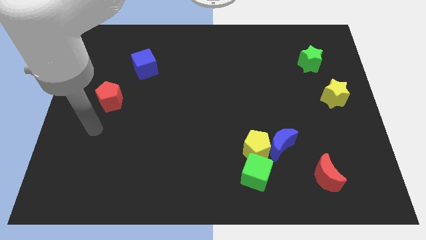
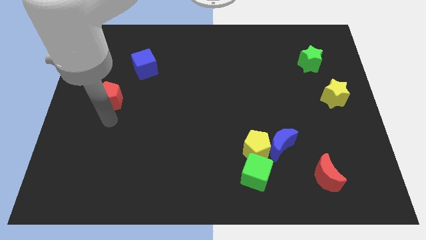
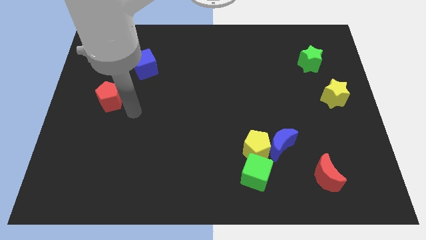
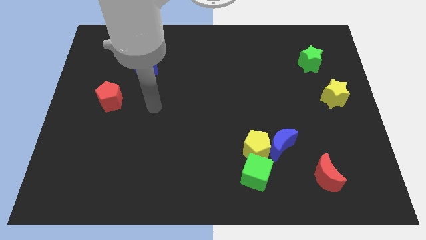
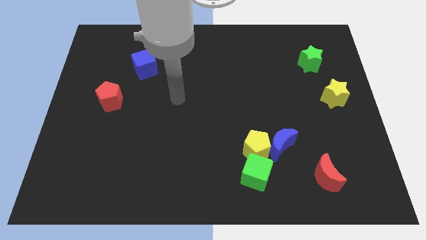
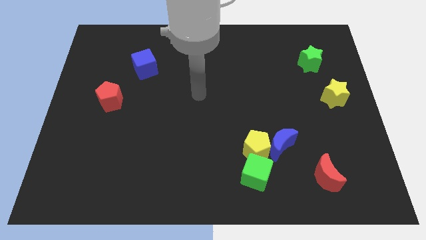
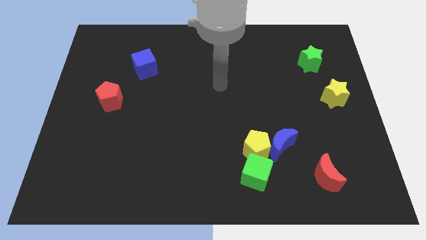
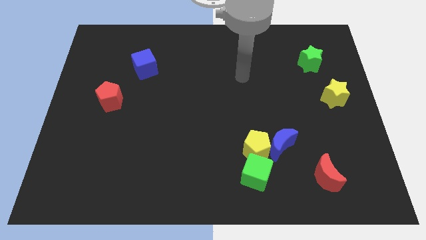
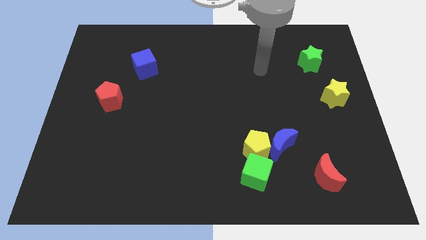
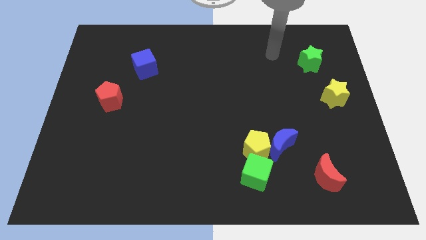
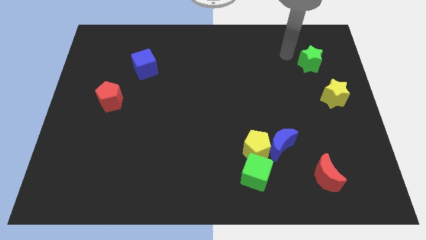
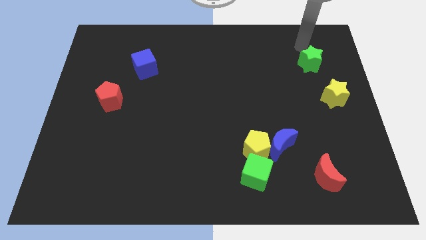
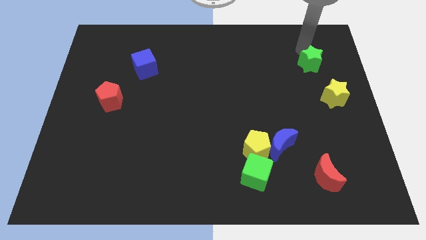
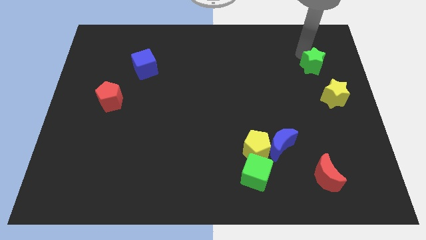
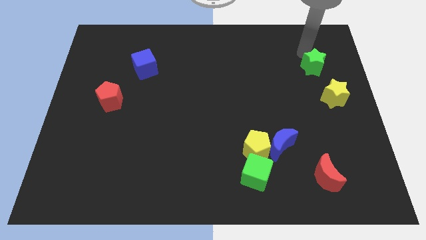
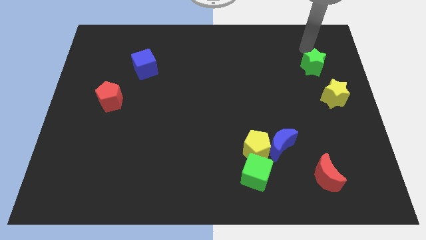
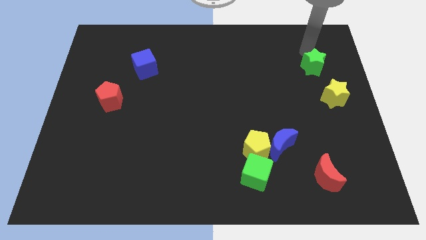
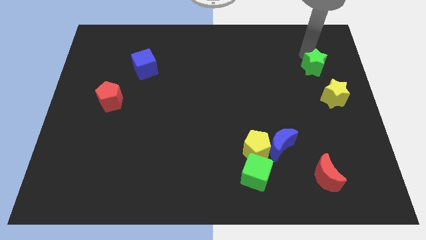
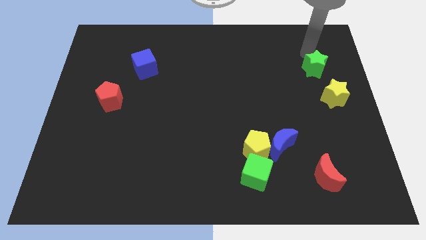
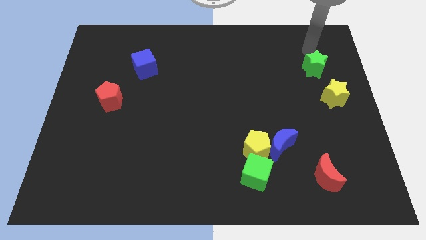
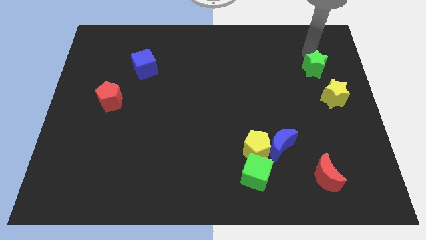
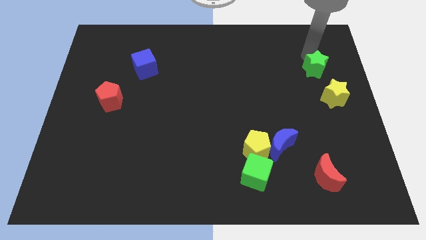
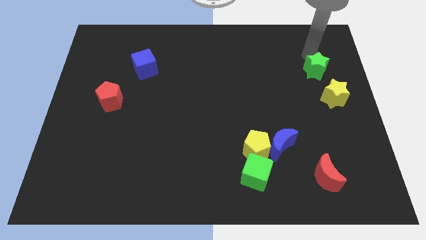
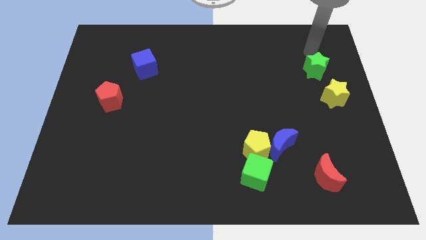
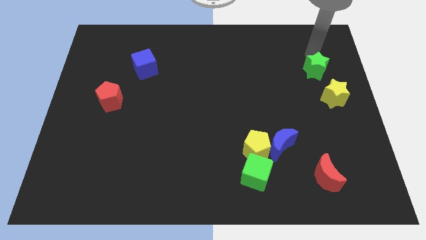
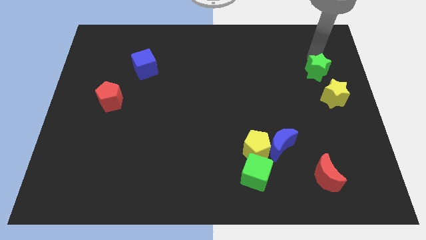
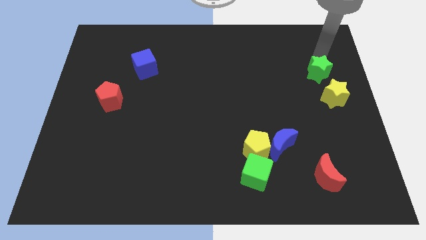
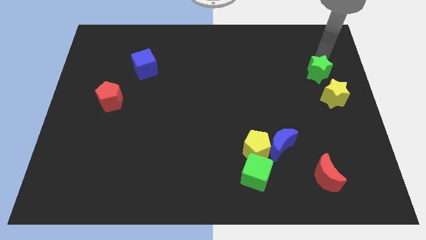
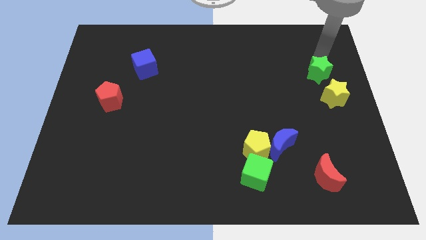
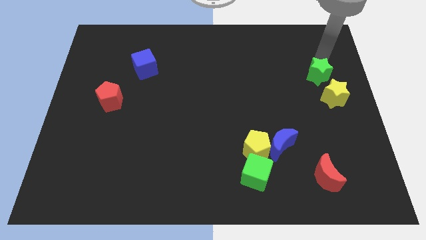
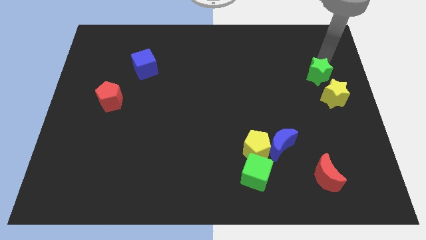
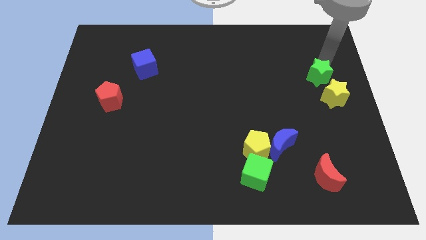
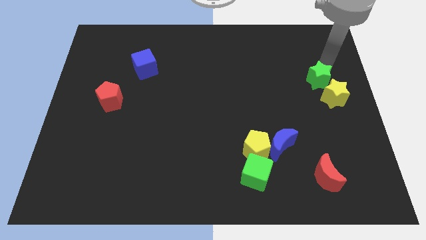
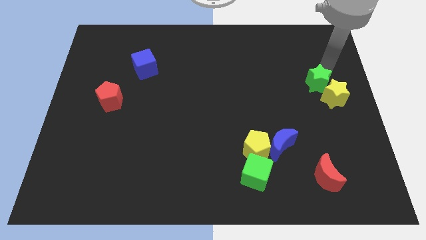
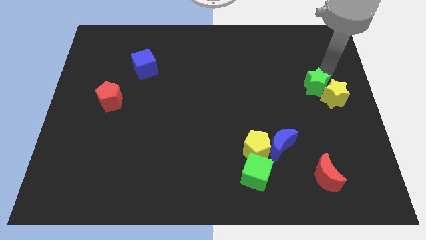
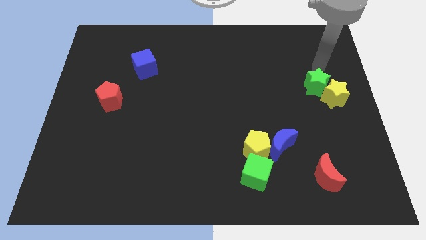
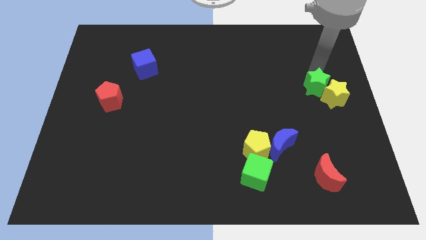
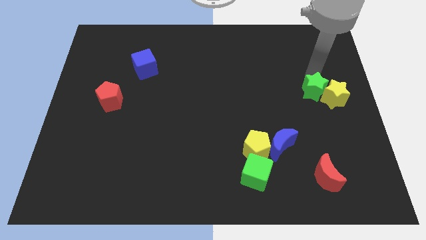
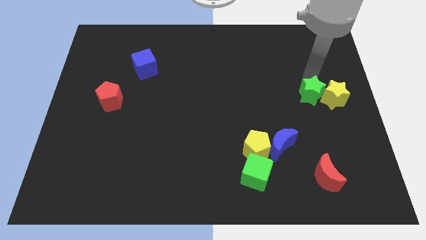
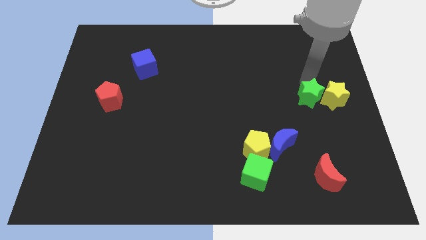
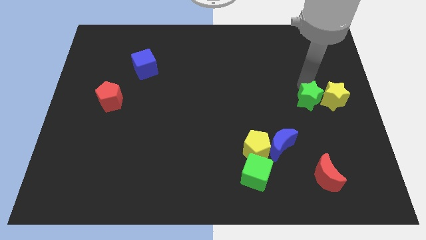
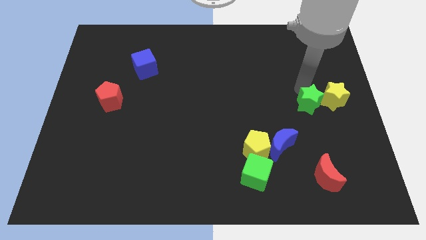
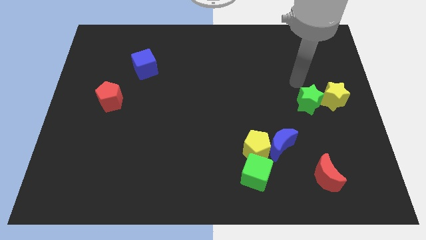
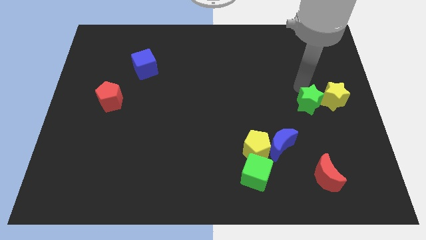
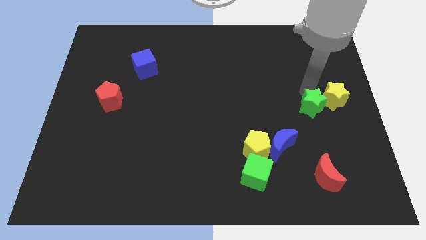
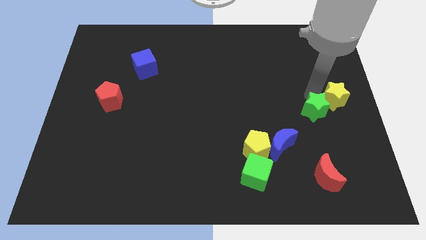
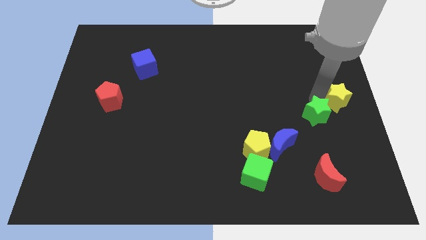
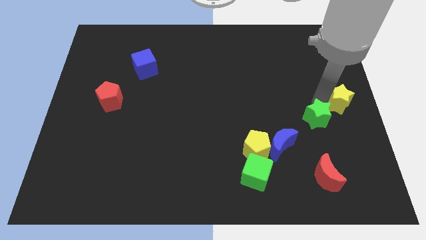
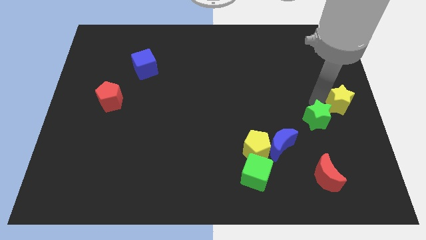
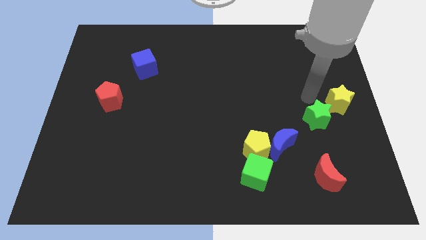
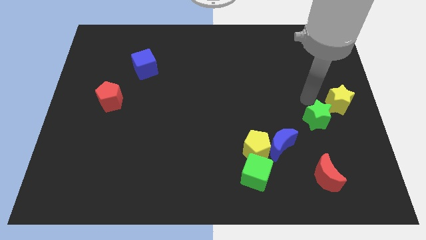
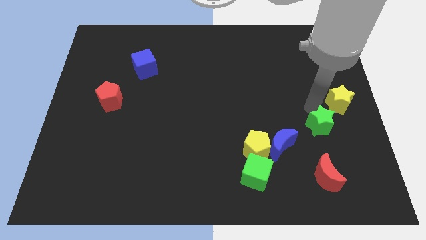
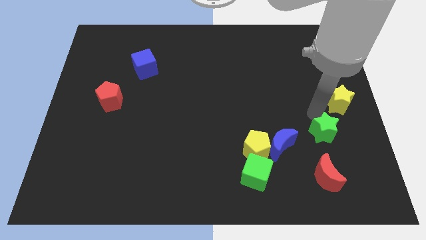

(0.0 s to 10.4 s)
slide the green star just right of the blue moon

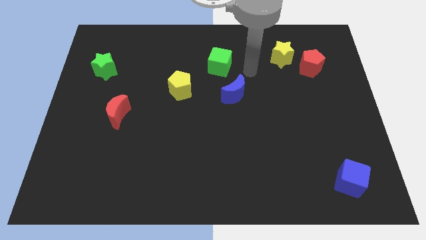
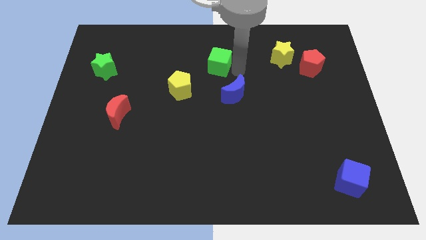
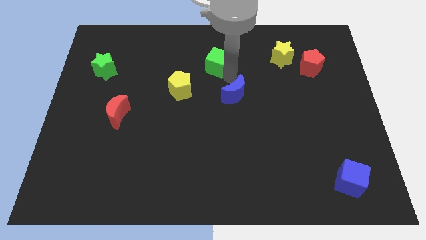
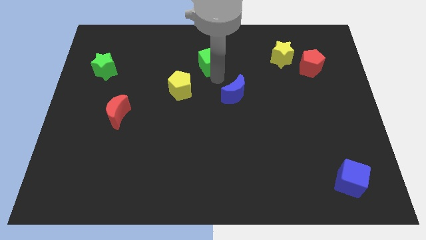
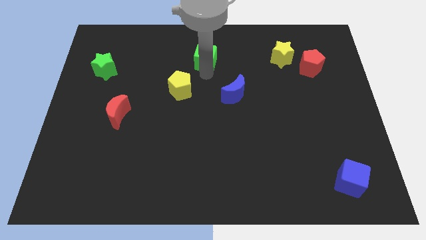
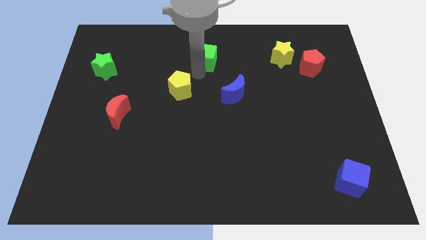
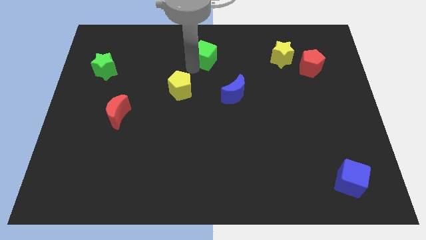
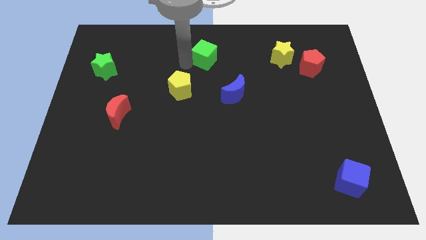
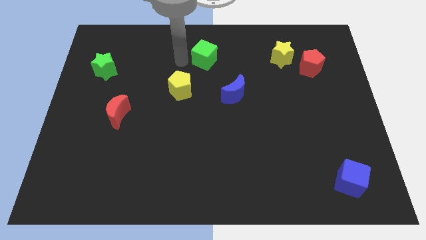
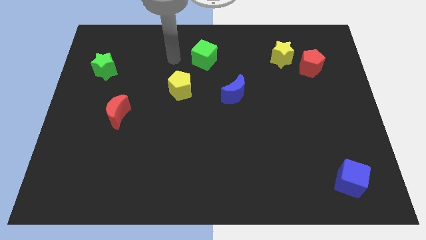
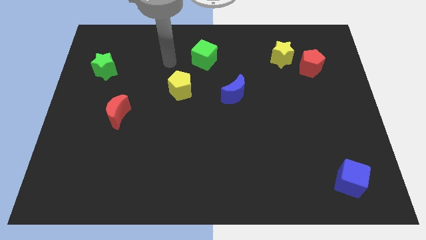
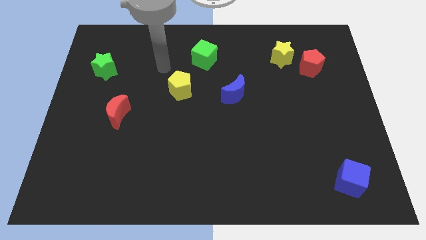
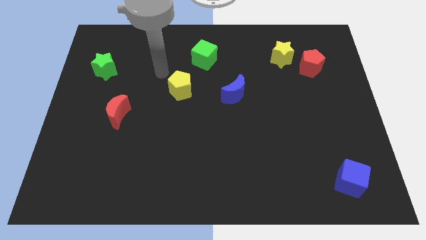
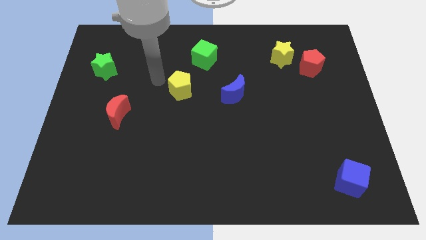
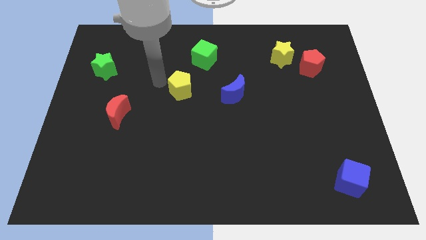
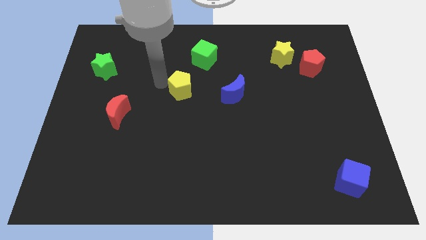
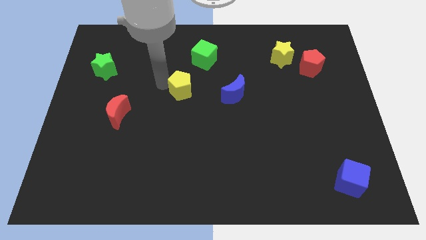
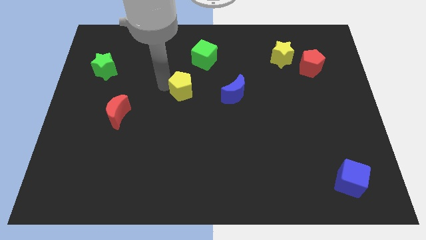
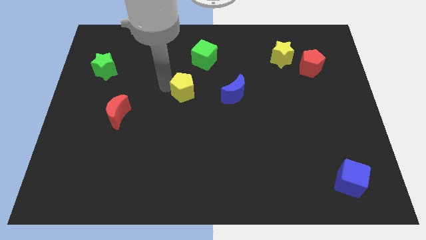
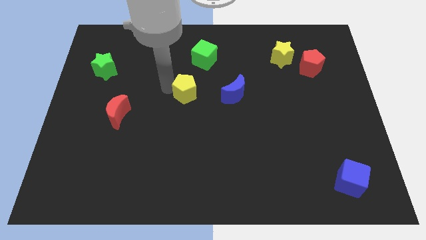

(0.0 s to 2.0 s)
push the yellow pentagon below the green cube

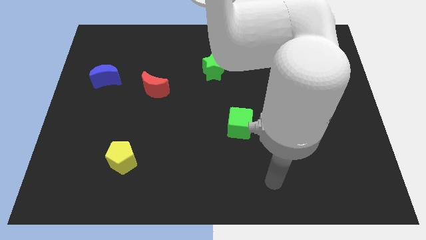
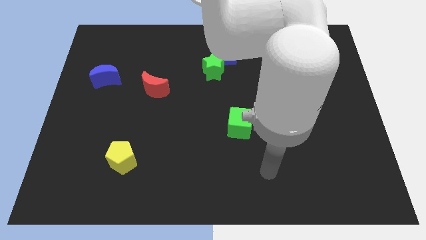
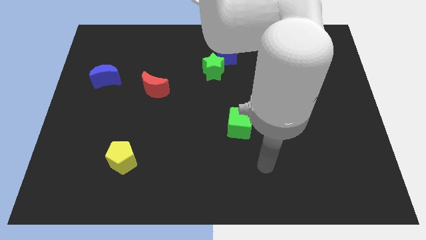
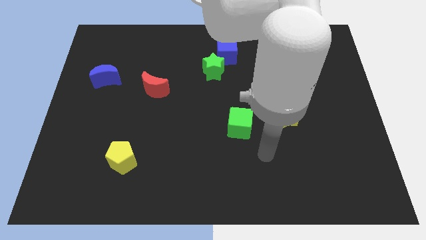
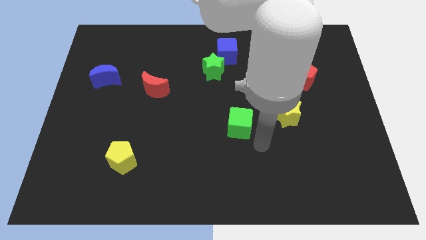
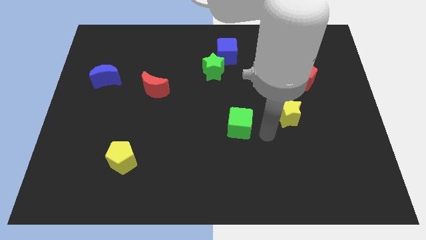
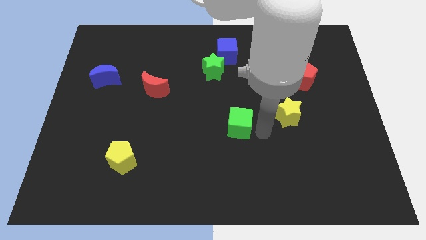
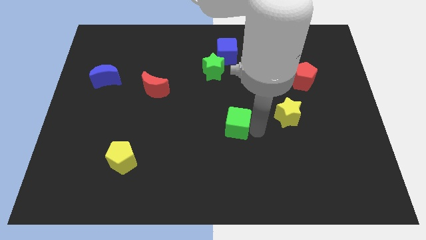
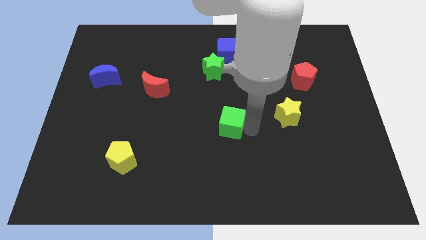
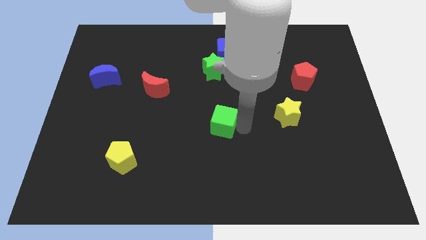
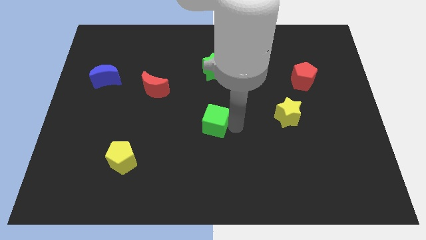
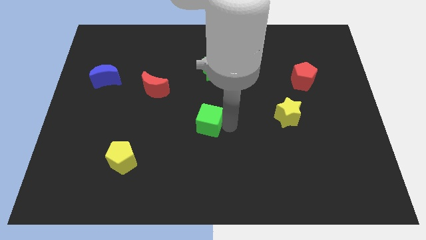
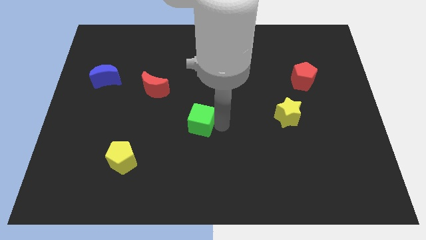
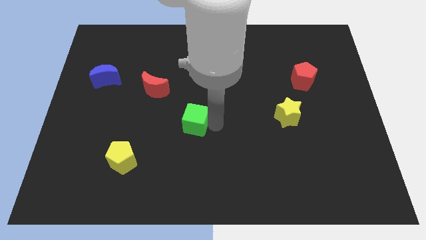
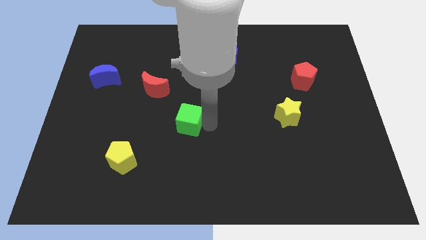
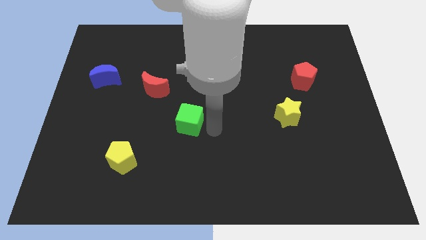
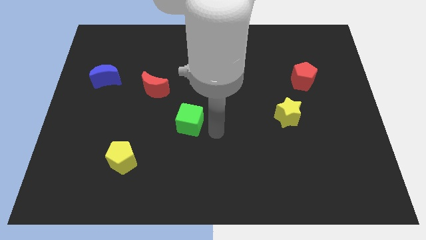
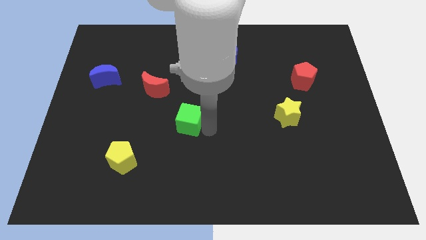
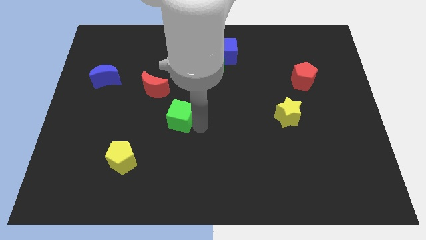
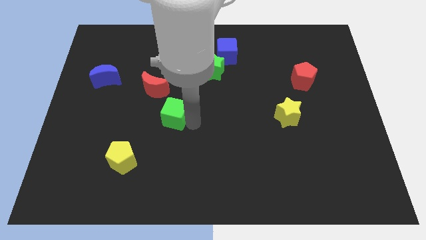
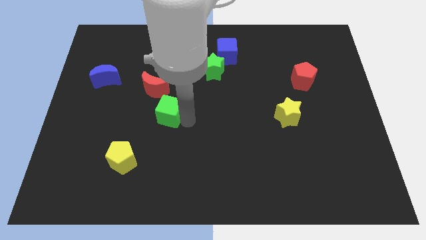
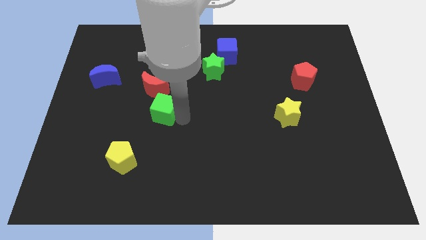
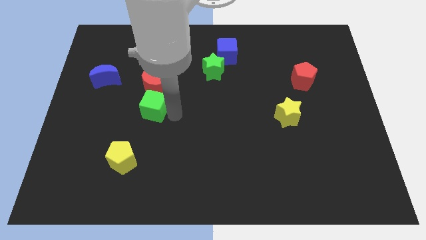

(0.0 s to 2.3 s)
push the green cube diagonally down and to the left of the red moon
